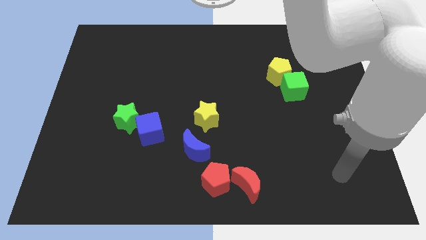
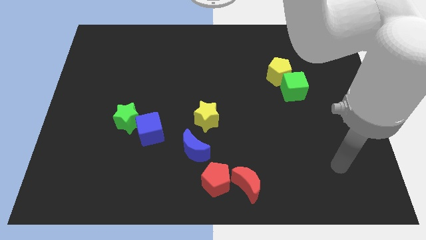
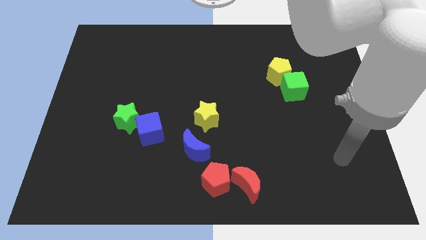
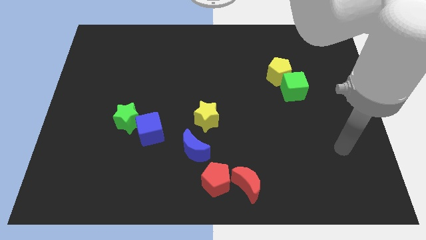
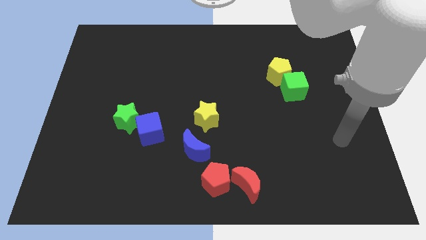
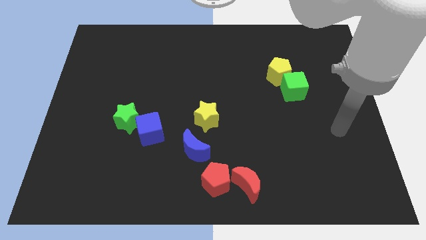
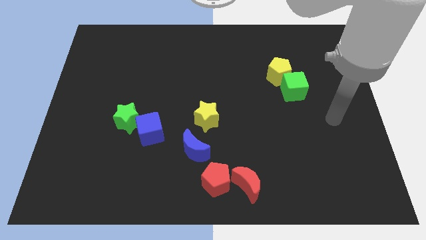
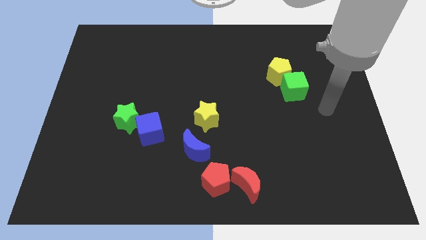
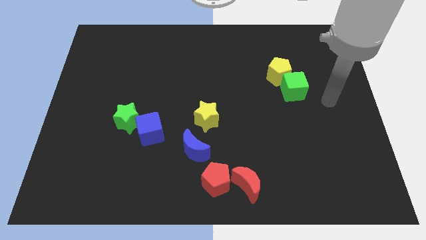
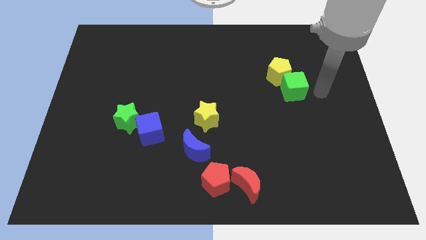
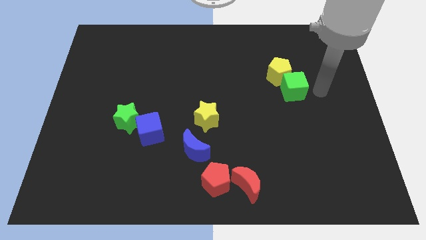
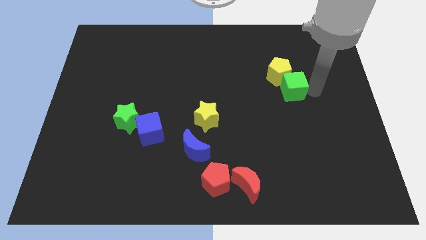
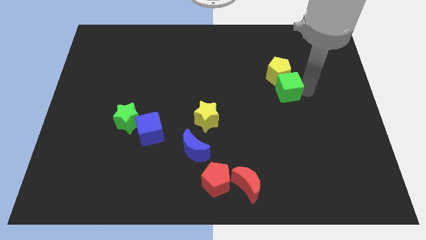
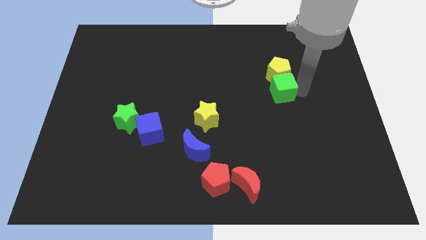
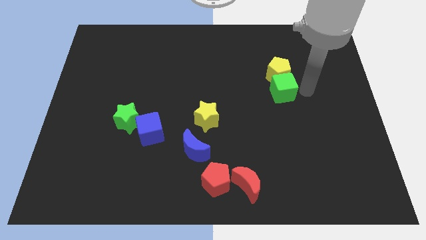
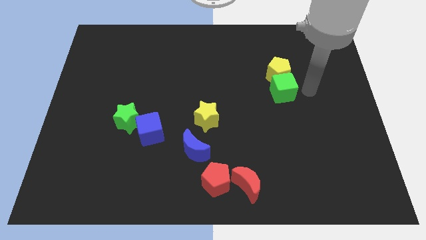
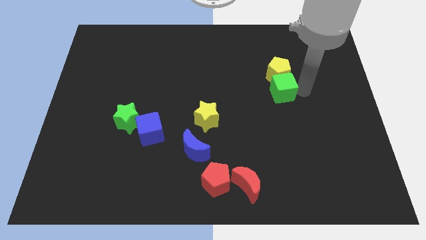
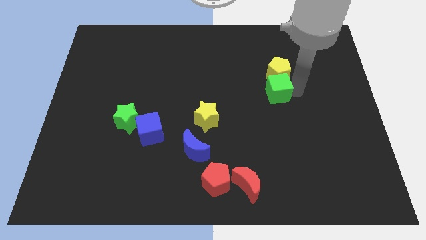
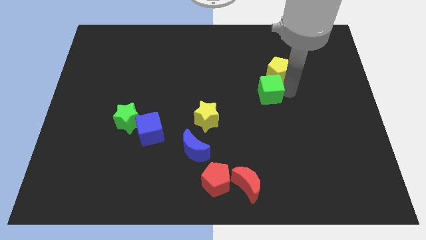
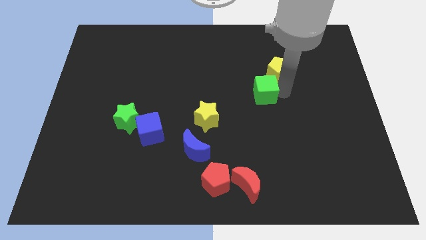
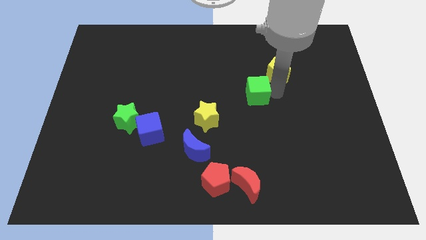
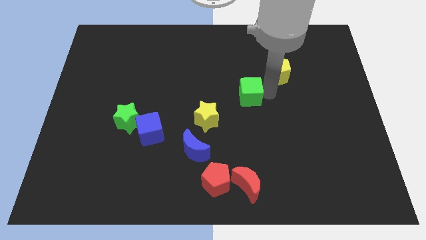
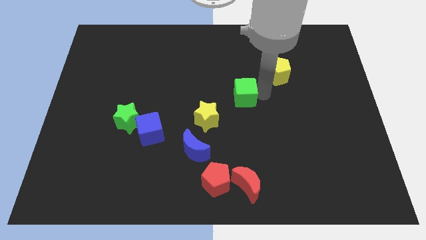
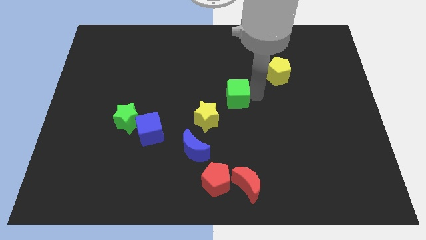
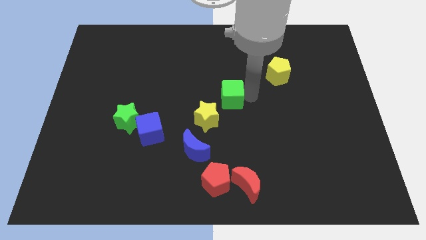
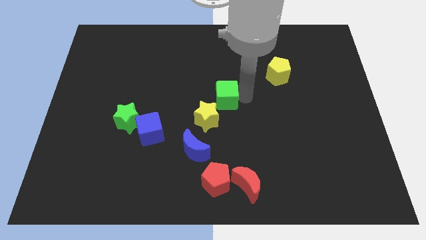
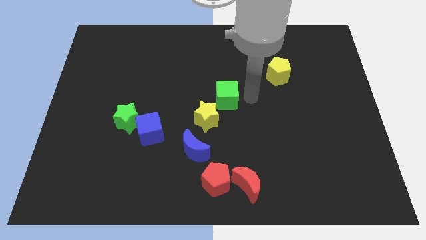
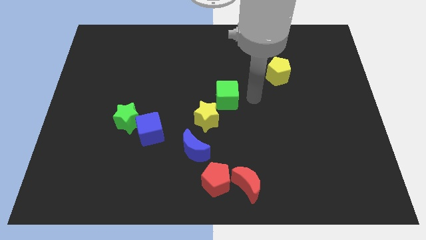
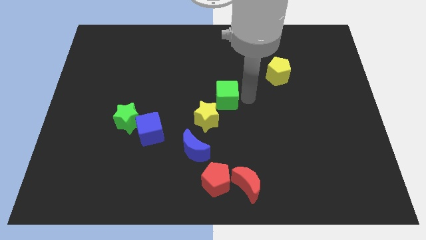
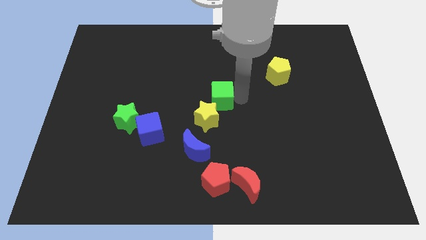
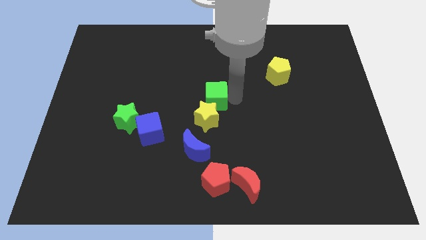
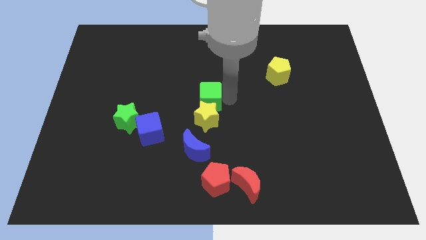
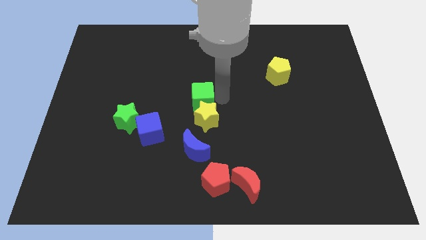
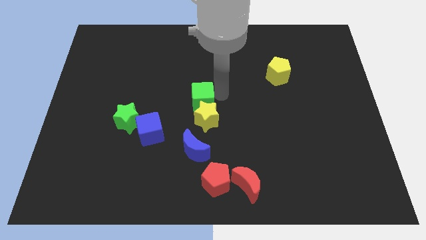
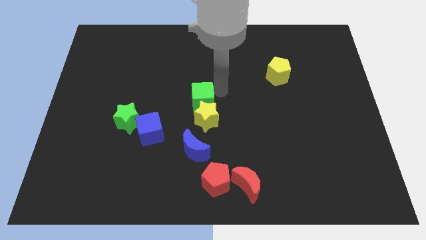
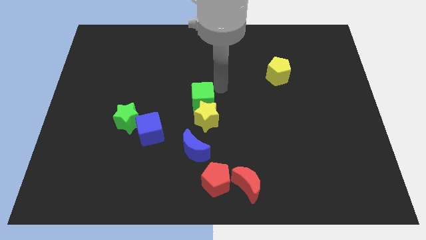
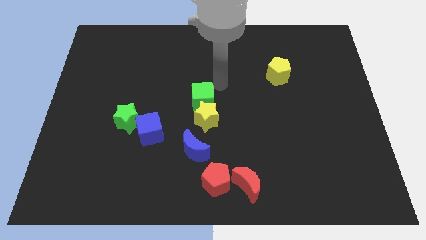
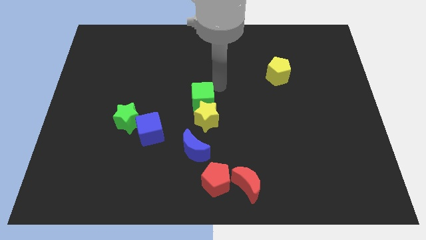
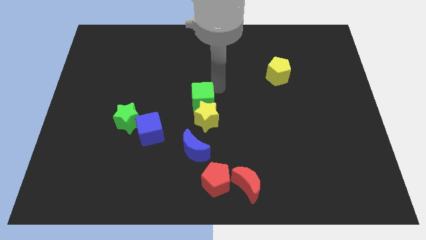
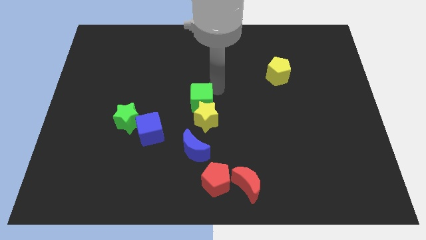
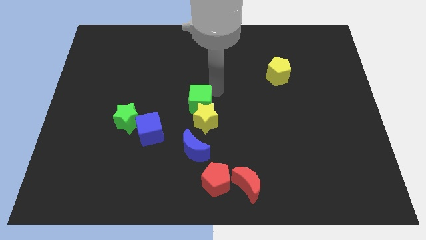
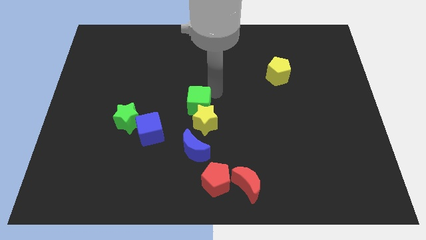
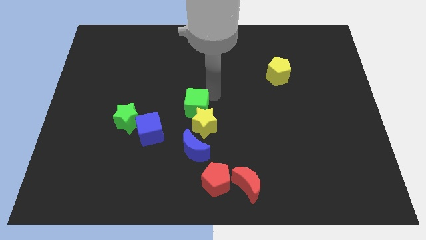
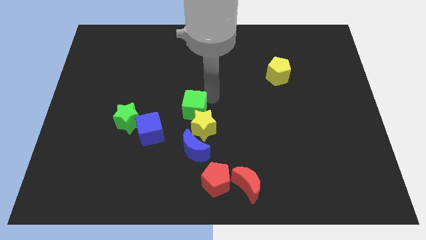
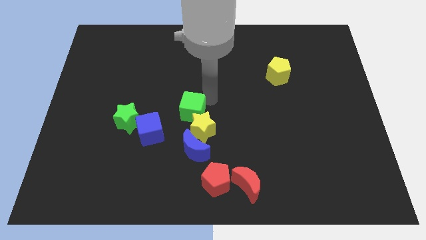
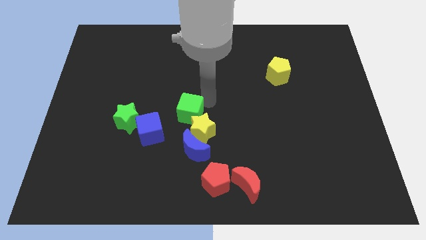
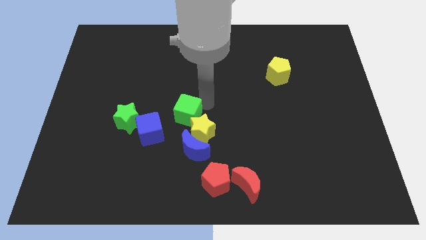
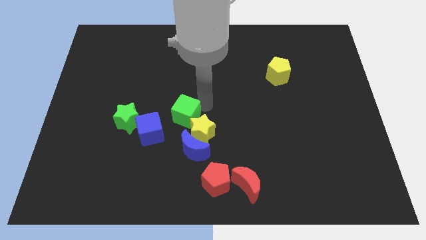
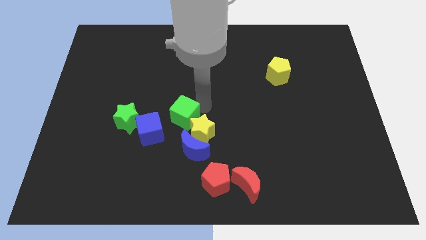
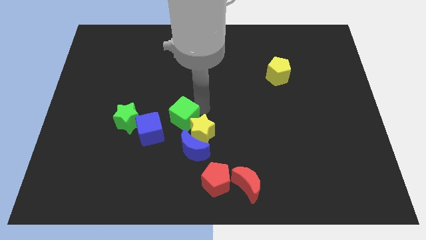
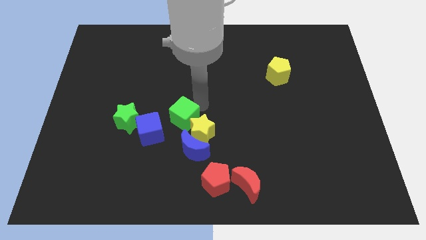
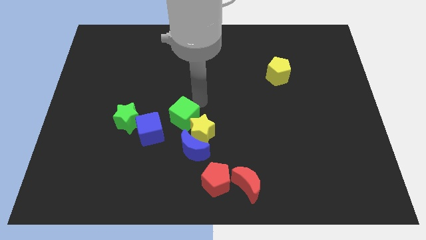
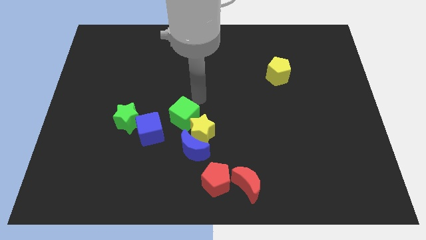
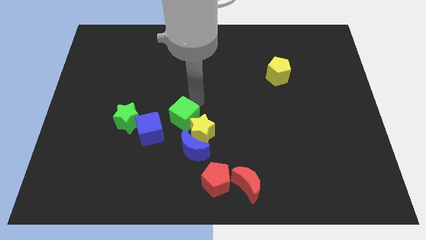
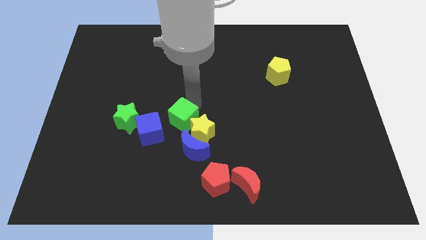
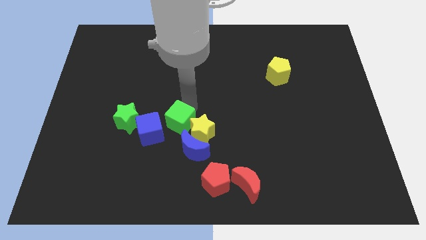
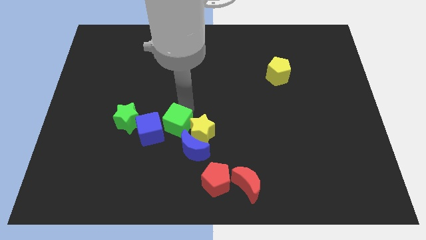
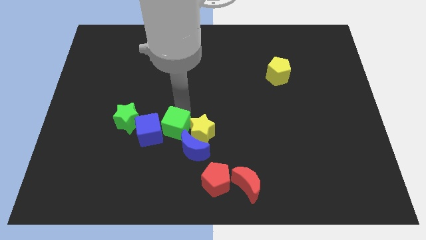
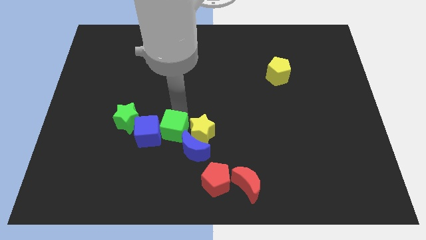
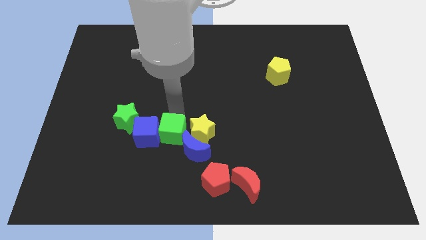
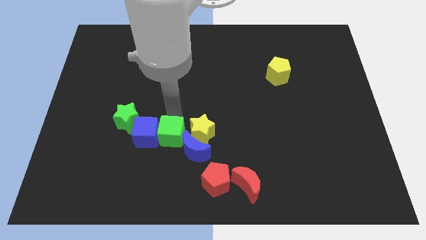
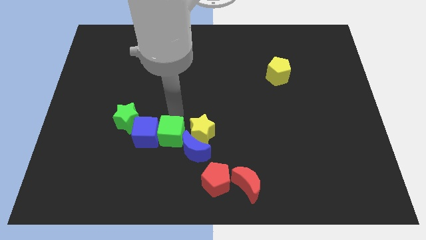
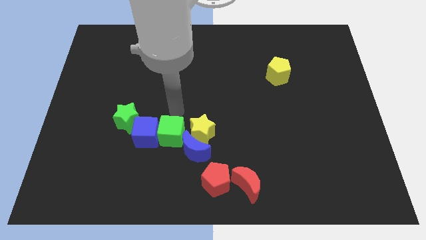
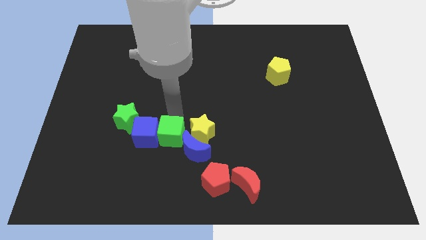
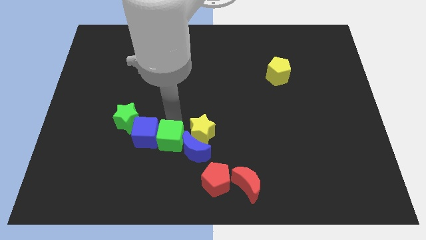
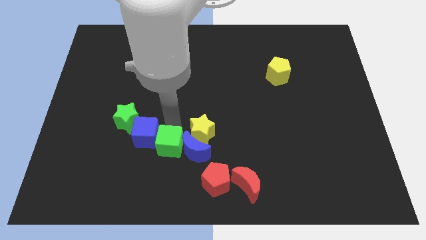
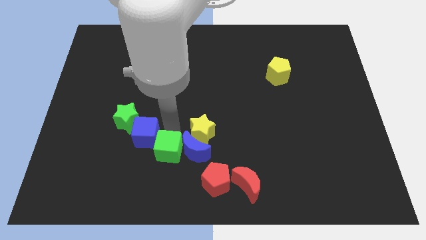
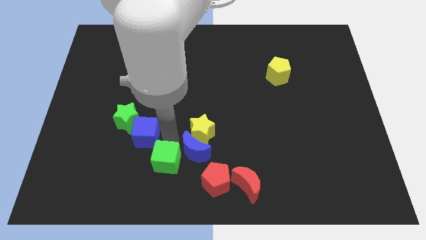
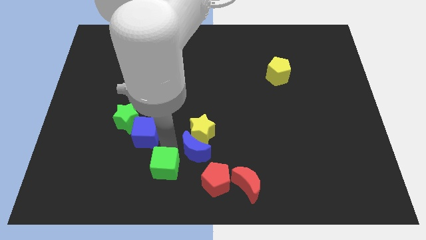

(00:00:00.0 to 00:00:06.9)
put the green cube left of the red pentagon
